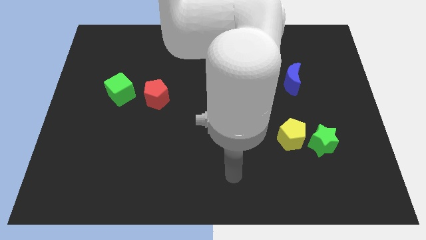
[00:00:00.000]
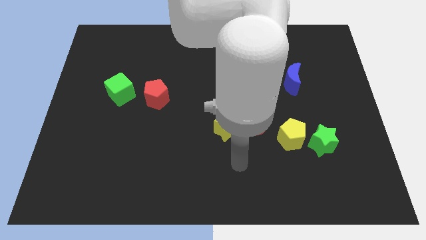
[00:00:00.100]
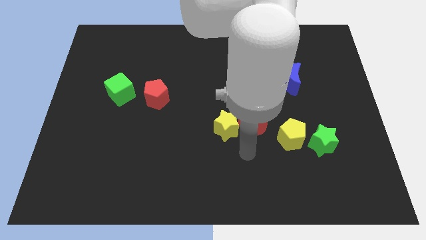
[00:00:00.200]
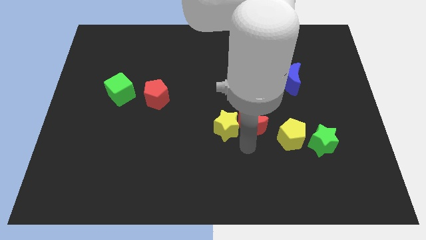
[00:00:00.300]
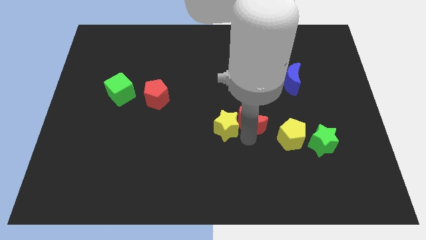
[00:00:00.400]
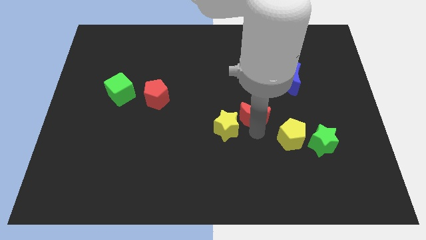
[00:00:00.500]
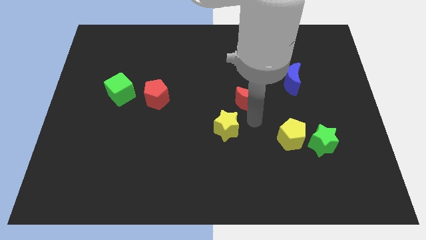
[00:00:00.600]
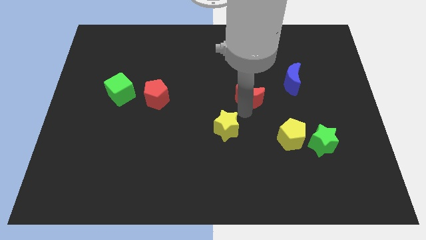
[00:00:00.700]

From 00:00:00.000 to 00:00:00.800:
move the yellow star away from the red moon

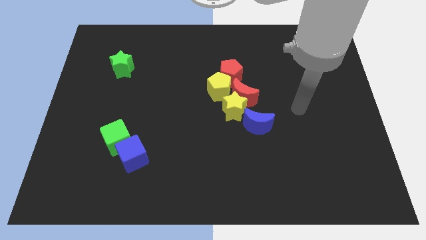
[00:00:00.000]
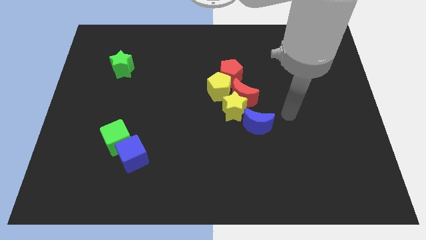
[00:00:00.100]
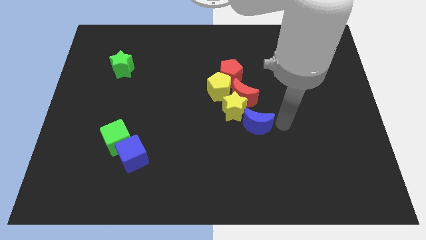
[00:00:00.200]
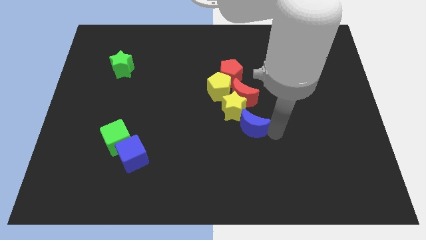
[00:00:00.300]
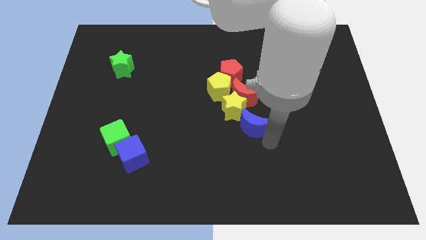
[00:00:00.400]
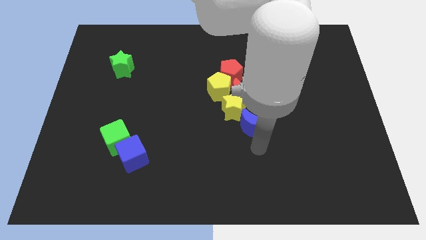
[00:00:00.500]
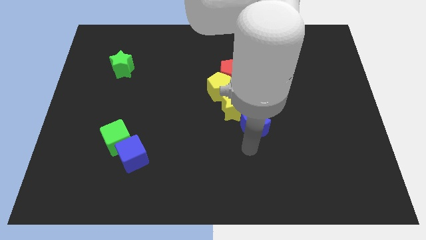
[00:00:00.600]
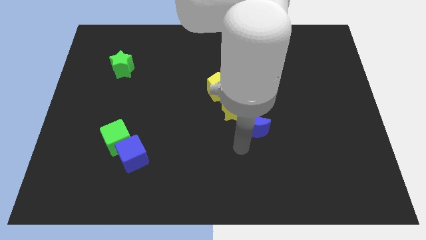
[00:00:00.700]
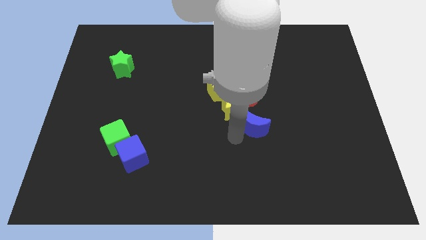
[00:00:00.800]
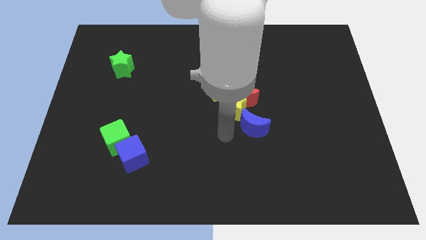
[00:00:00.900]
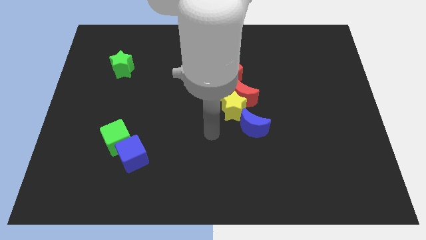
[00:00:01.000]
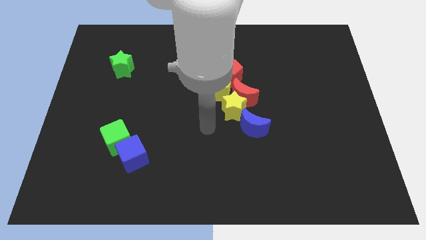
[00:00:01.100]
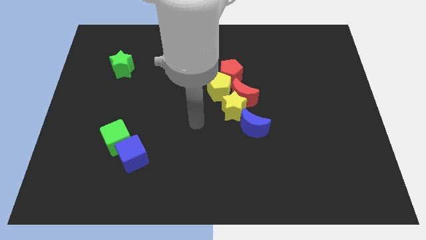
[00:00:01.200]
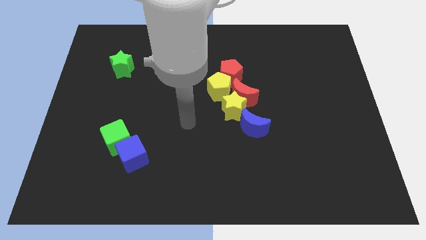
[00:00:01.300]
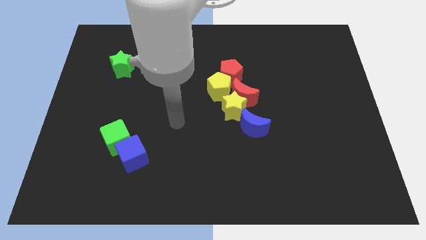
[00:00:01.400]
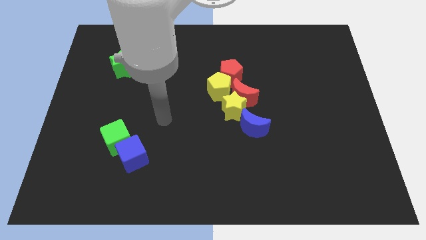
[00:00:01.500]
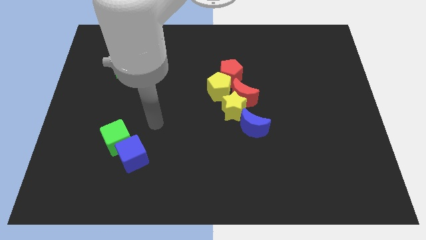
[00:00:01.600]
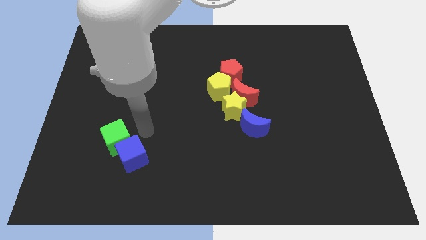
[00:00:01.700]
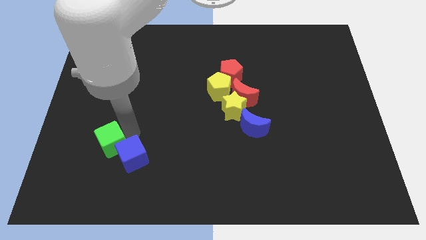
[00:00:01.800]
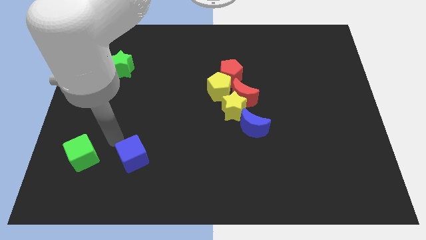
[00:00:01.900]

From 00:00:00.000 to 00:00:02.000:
move the blue cube away from the green cube

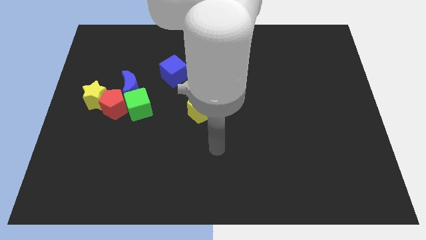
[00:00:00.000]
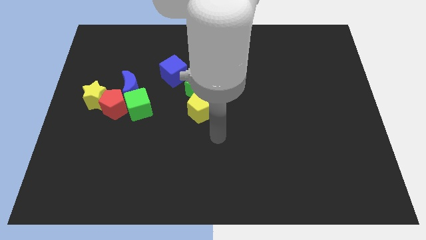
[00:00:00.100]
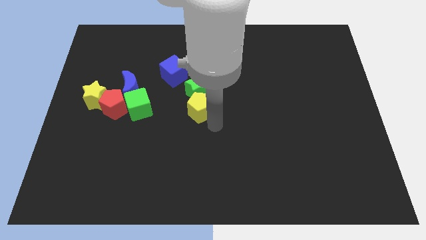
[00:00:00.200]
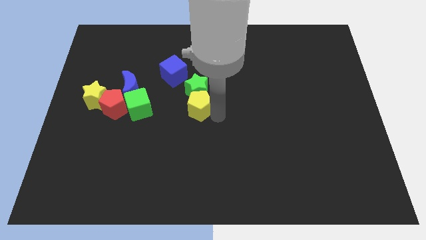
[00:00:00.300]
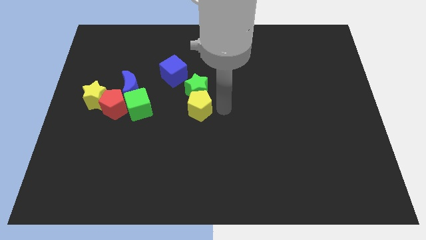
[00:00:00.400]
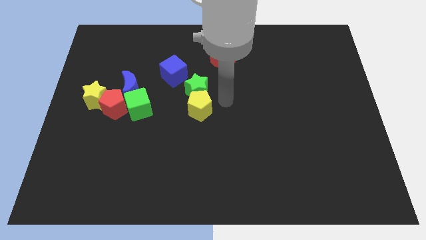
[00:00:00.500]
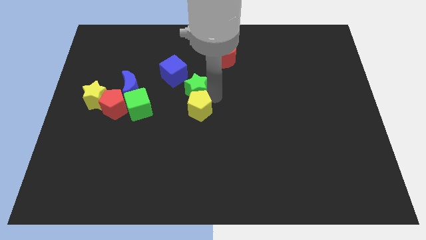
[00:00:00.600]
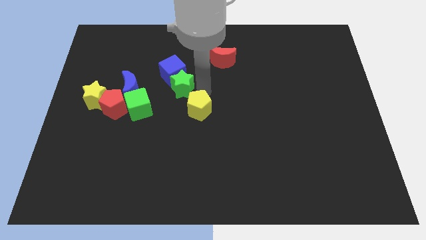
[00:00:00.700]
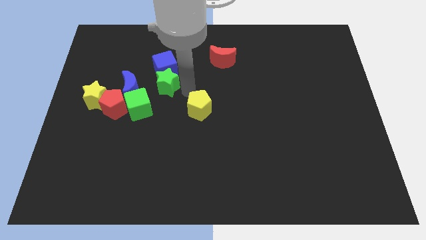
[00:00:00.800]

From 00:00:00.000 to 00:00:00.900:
move the yellow pentagon away from the green star

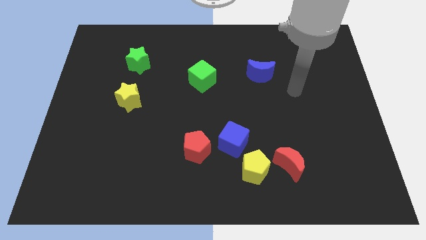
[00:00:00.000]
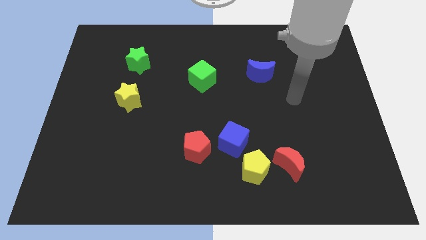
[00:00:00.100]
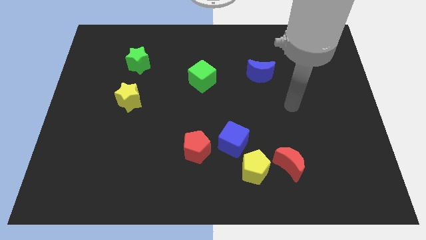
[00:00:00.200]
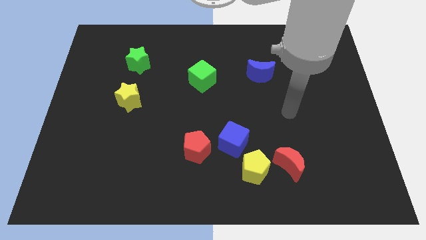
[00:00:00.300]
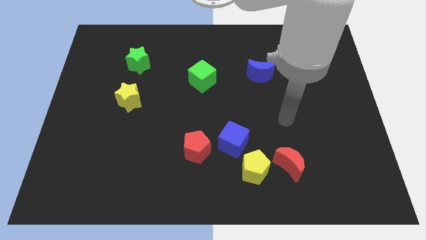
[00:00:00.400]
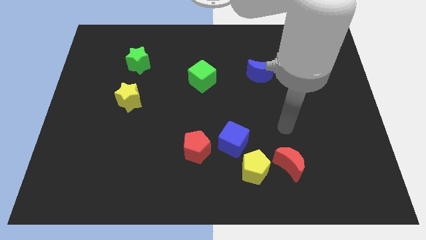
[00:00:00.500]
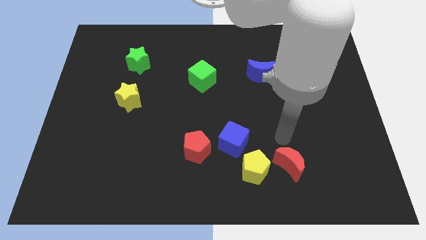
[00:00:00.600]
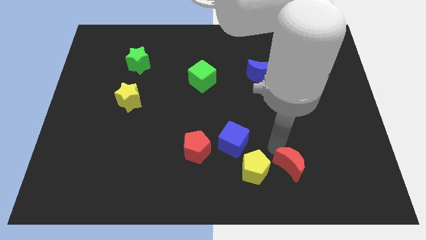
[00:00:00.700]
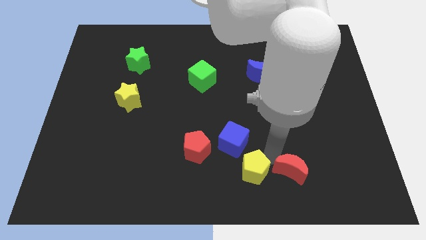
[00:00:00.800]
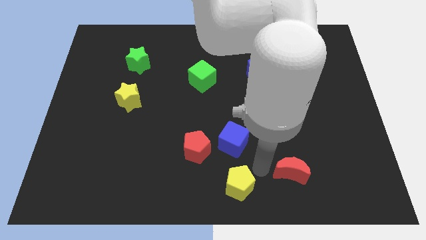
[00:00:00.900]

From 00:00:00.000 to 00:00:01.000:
pull the red moon apart from the yellow pentagon

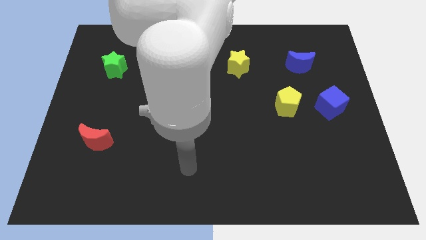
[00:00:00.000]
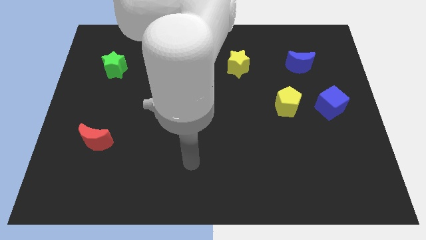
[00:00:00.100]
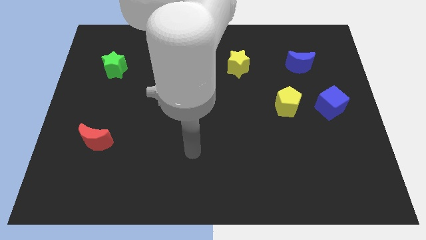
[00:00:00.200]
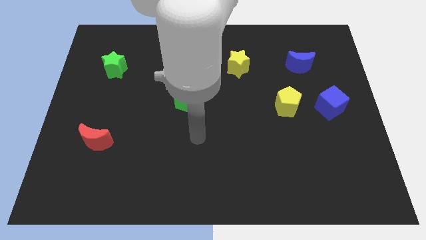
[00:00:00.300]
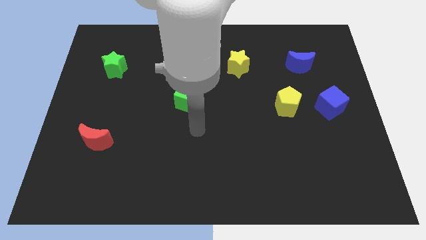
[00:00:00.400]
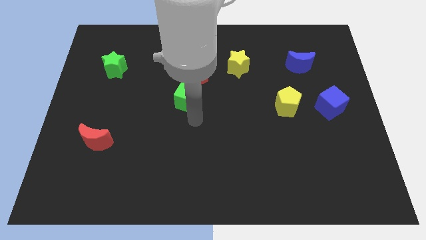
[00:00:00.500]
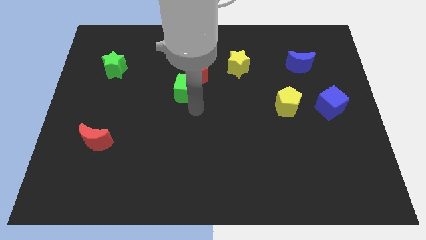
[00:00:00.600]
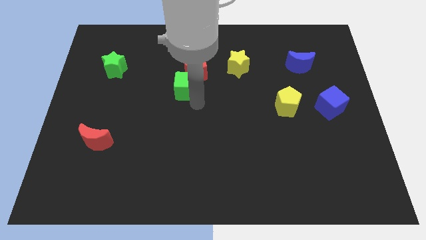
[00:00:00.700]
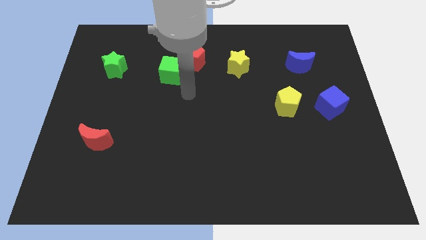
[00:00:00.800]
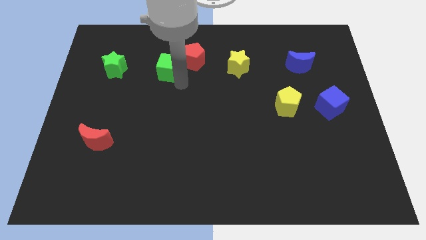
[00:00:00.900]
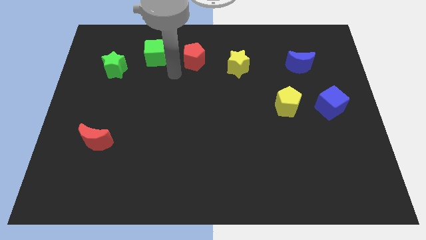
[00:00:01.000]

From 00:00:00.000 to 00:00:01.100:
pull the red pentagon apart from the green cube

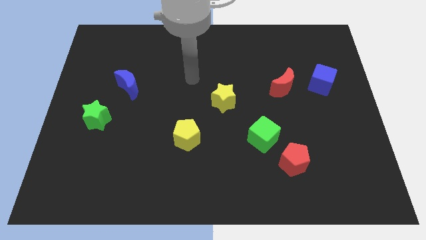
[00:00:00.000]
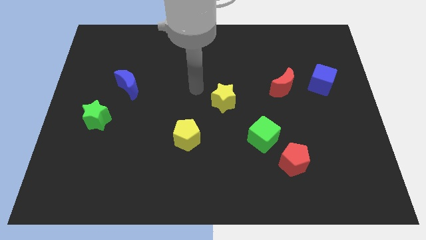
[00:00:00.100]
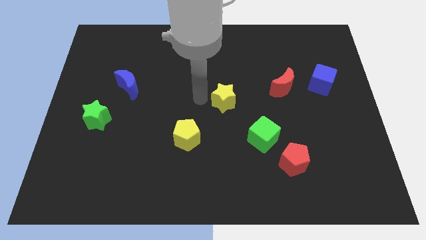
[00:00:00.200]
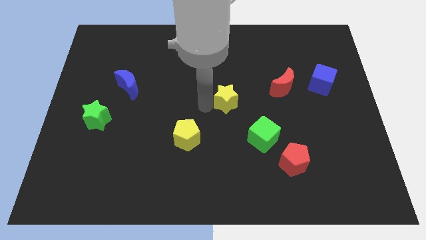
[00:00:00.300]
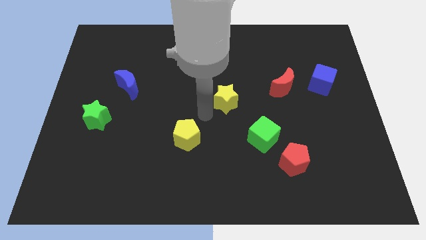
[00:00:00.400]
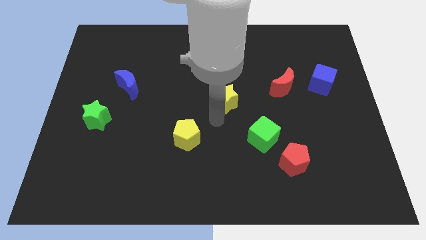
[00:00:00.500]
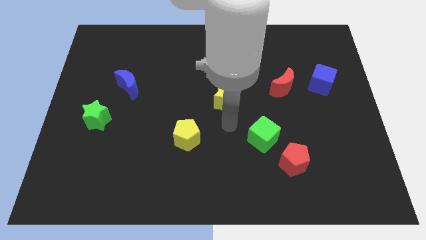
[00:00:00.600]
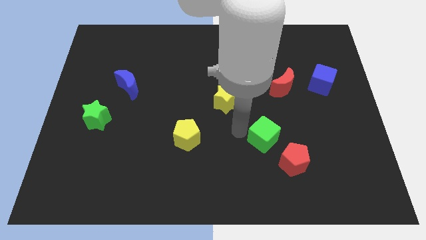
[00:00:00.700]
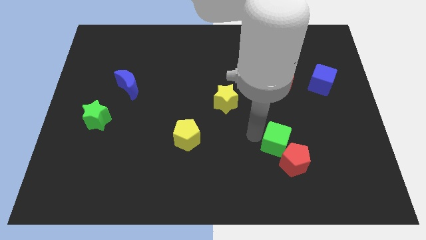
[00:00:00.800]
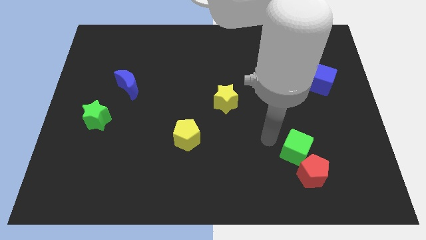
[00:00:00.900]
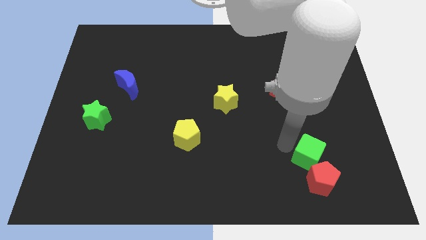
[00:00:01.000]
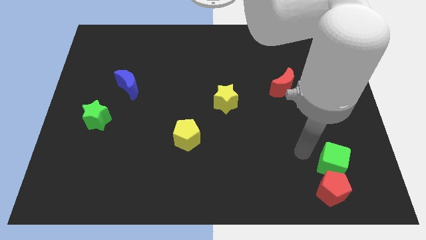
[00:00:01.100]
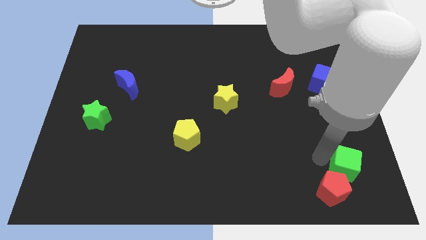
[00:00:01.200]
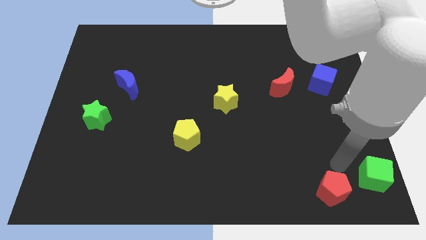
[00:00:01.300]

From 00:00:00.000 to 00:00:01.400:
separate the red pentagon from the green cube

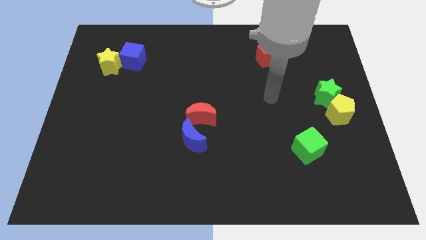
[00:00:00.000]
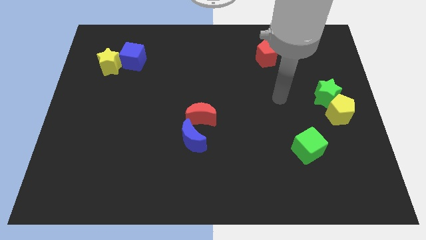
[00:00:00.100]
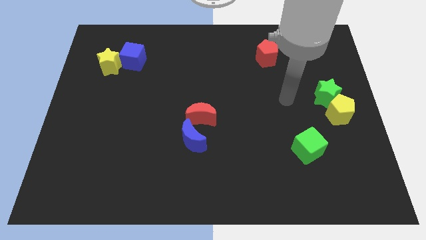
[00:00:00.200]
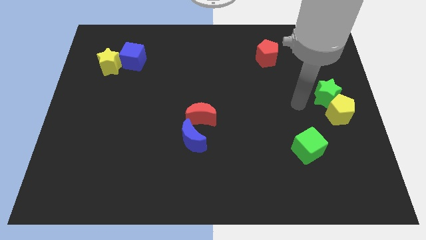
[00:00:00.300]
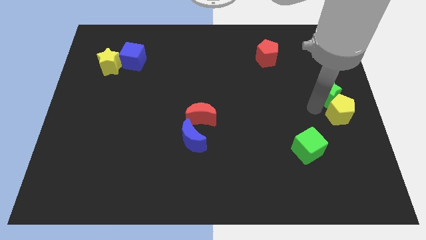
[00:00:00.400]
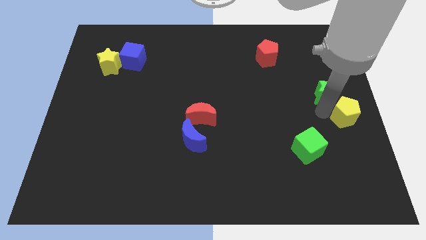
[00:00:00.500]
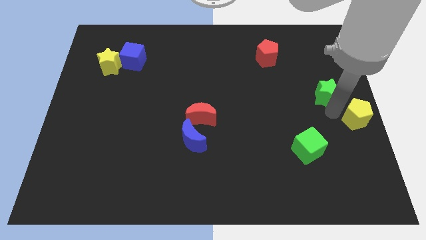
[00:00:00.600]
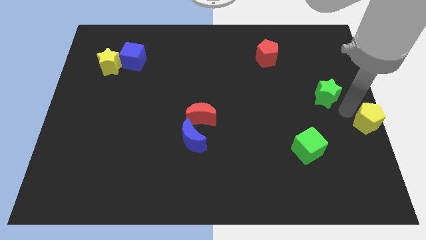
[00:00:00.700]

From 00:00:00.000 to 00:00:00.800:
pull the green star apart from the yellow pentagon

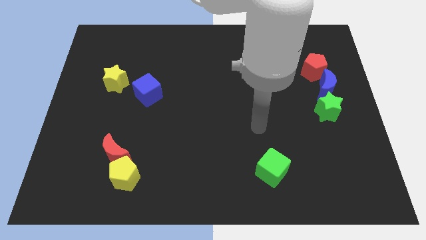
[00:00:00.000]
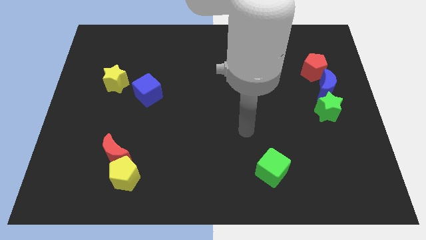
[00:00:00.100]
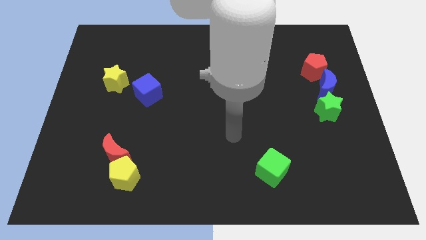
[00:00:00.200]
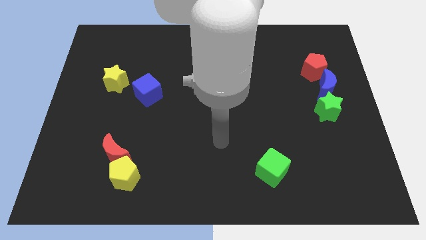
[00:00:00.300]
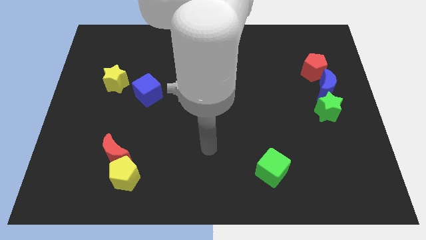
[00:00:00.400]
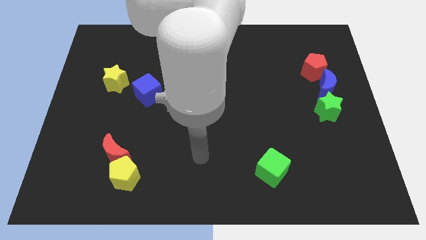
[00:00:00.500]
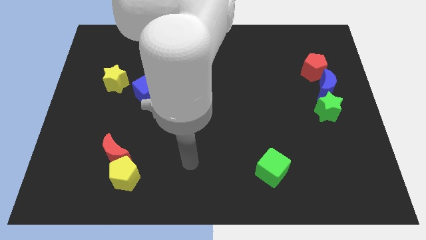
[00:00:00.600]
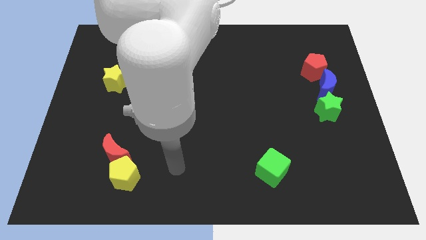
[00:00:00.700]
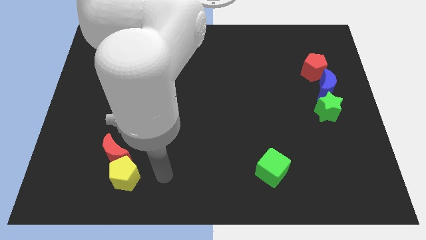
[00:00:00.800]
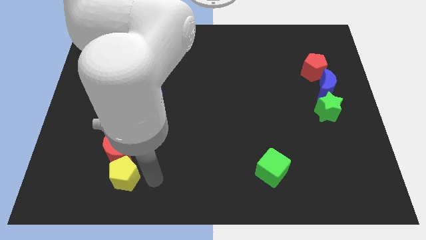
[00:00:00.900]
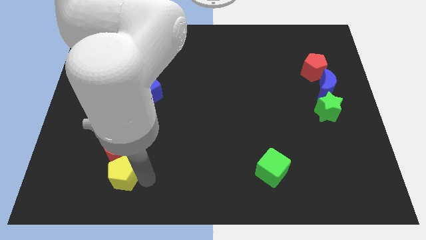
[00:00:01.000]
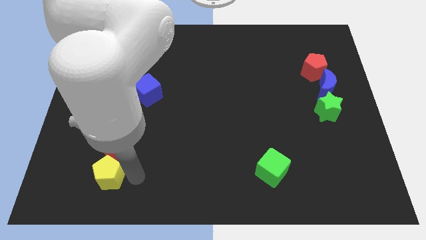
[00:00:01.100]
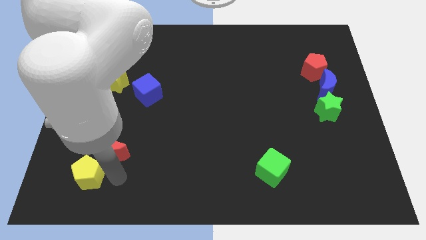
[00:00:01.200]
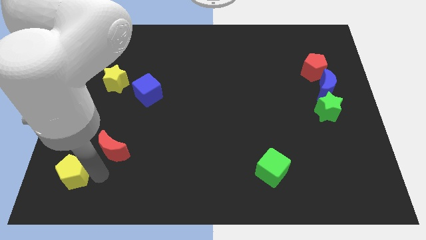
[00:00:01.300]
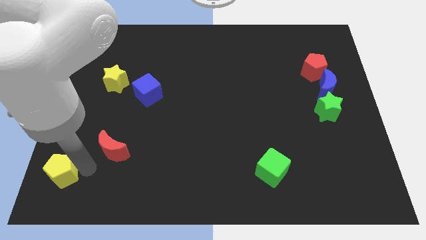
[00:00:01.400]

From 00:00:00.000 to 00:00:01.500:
separate the red moon from the yellow pentagon
